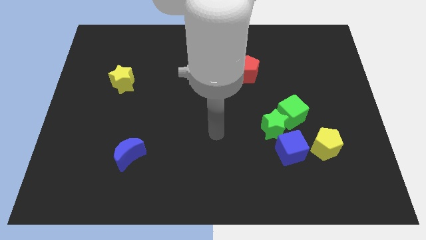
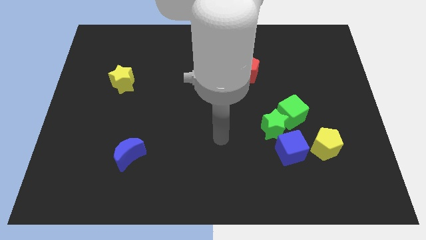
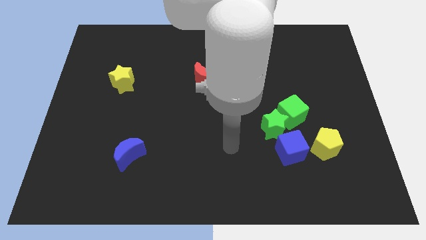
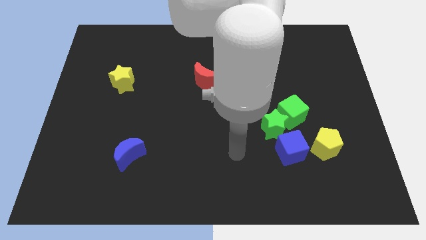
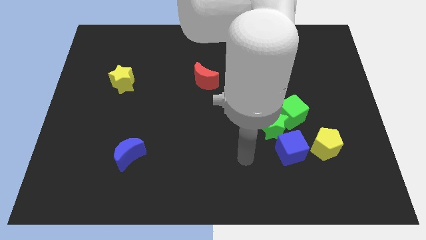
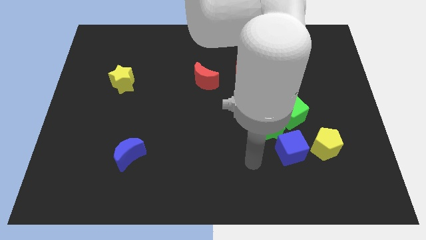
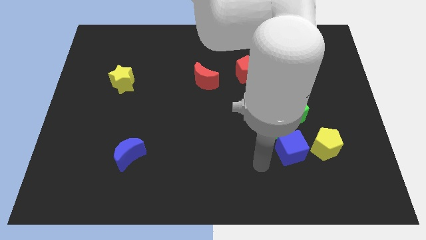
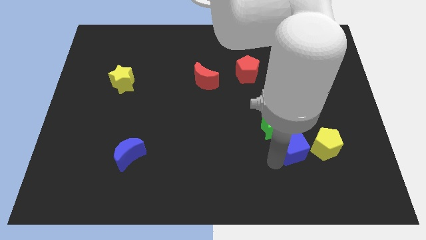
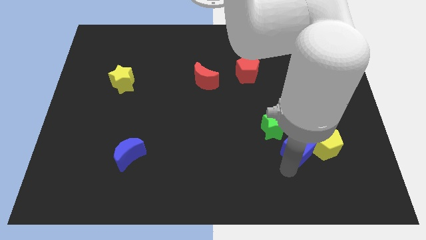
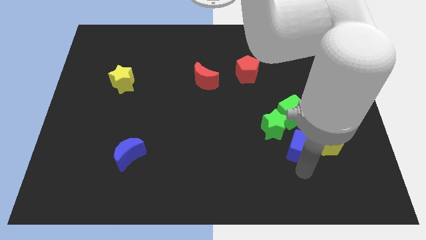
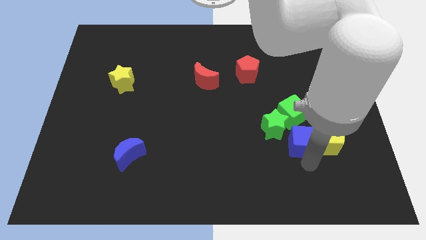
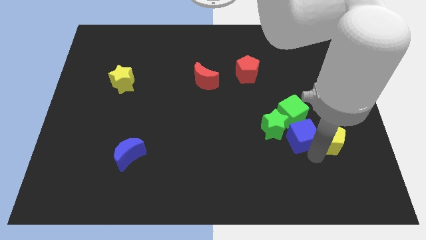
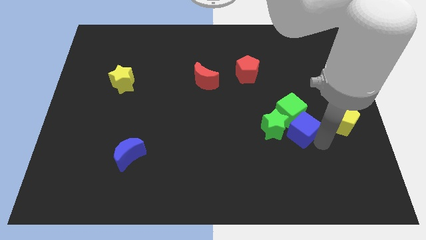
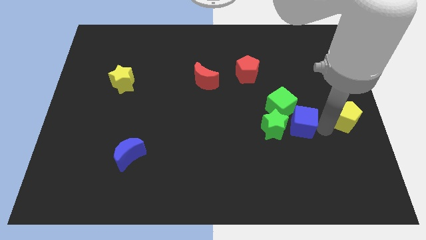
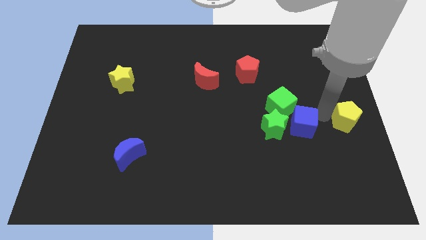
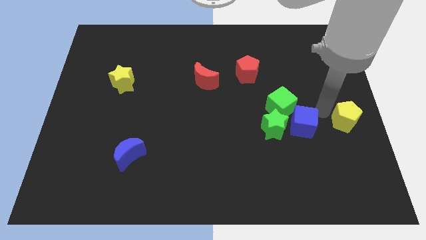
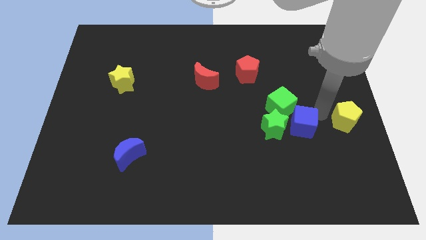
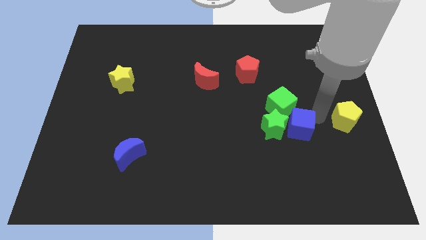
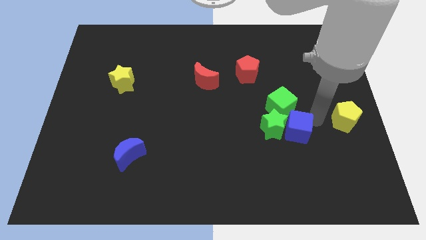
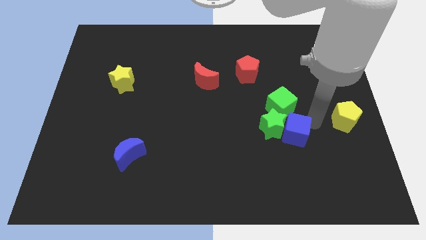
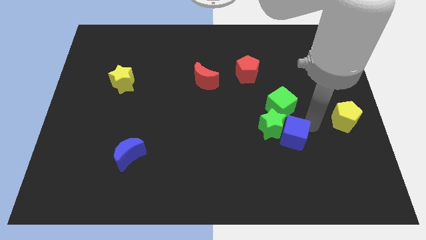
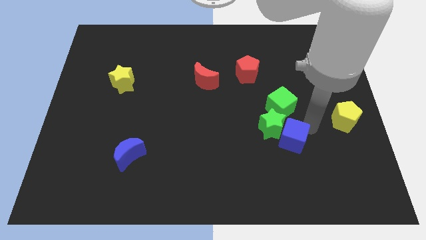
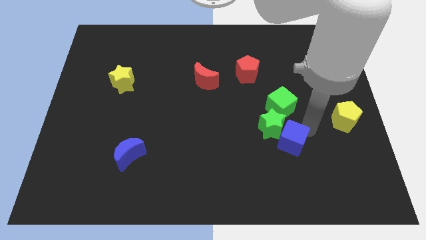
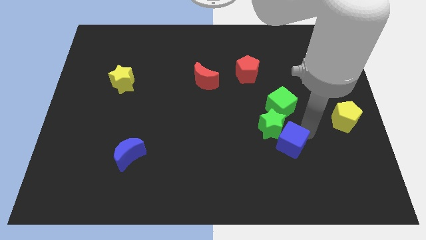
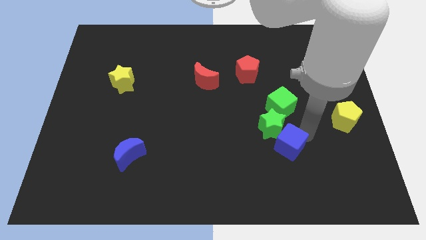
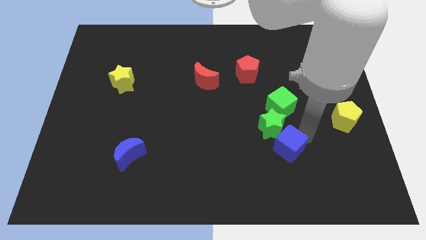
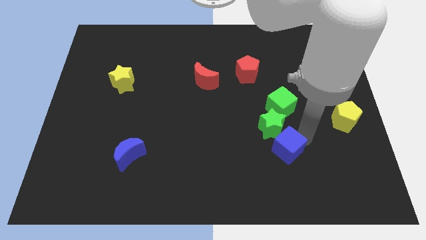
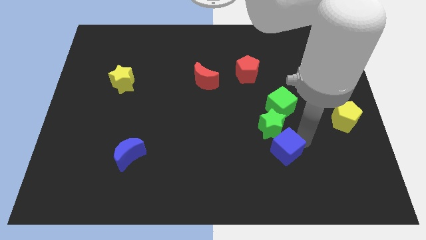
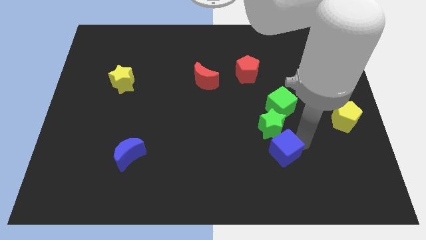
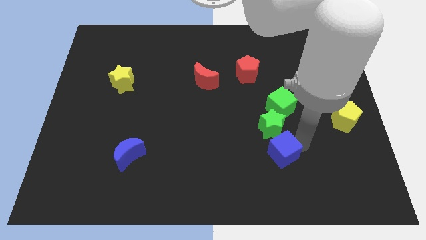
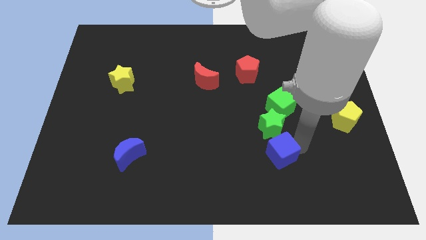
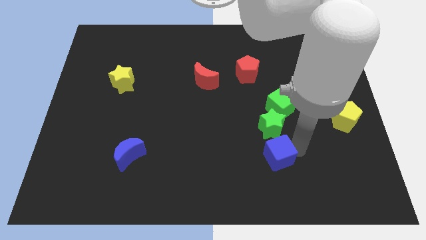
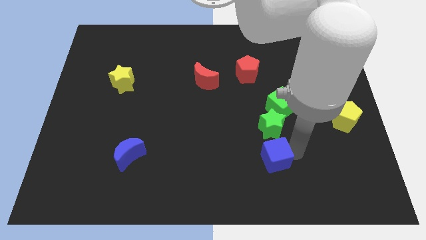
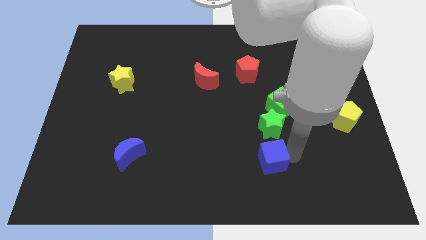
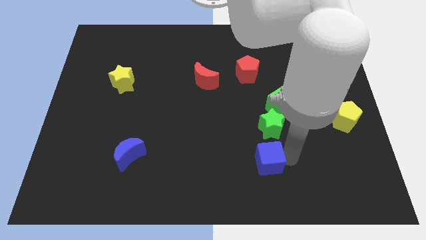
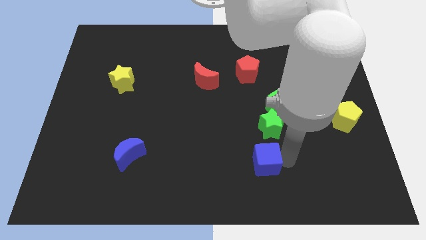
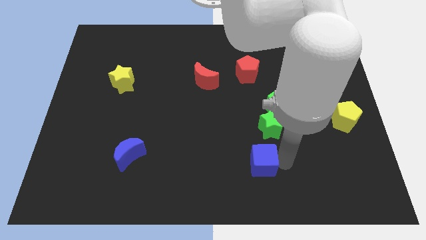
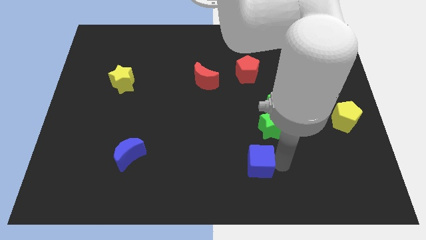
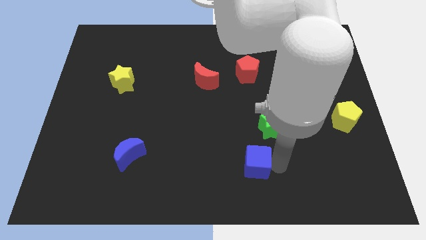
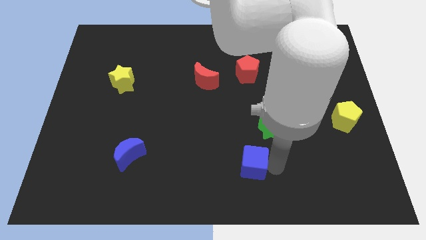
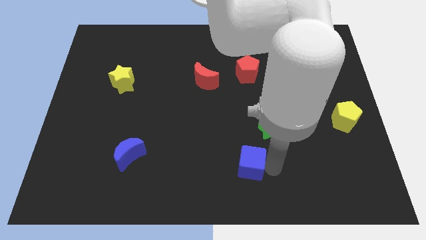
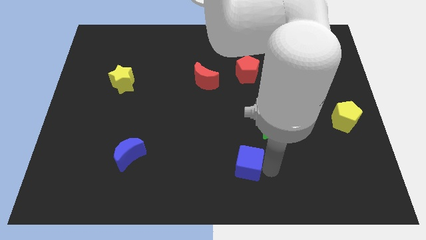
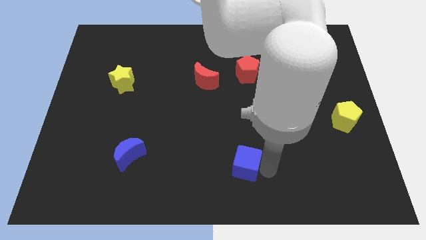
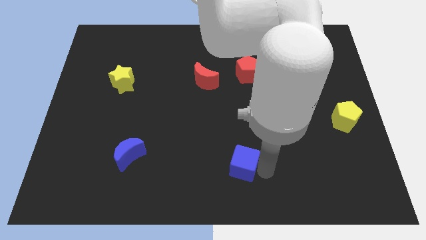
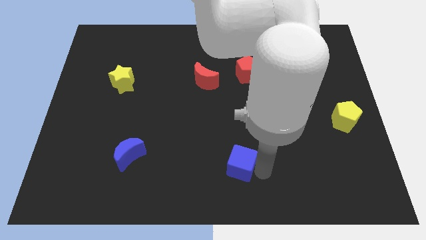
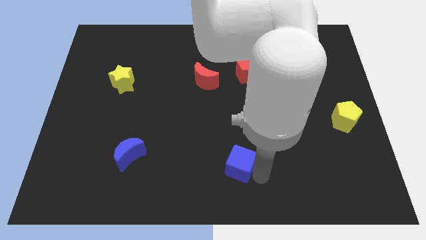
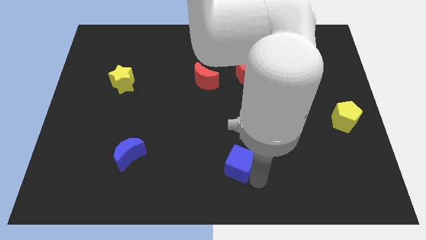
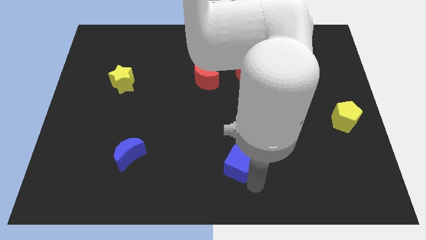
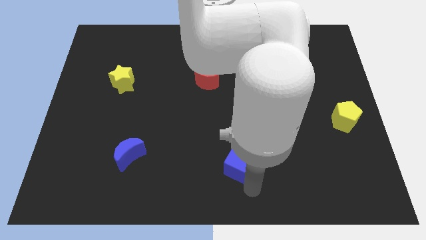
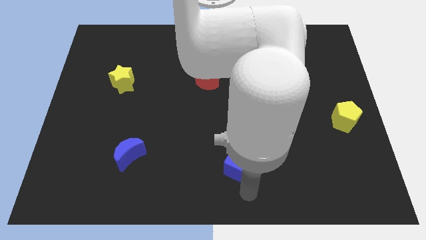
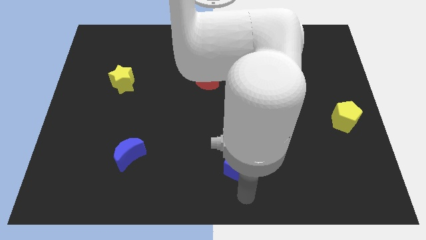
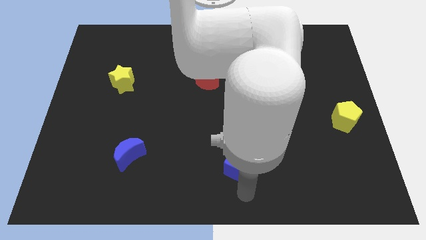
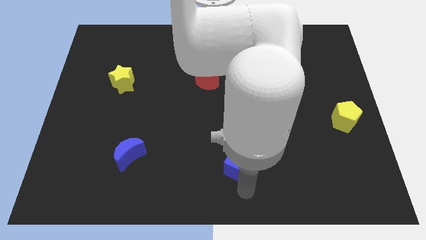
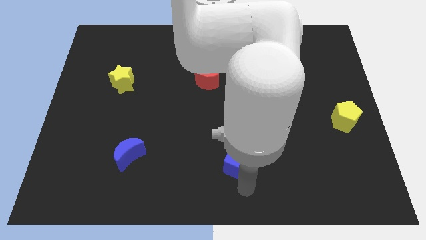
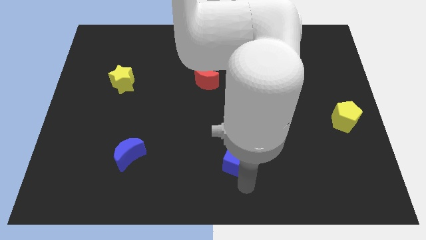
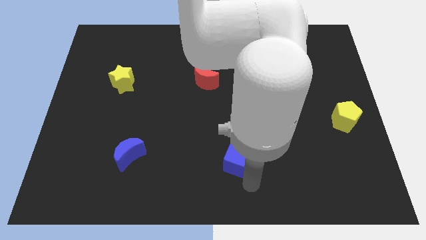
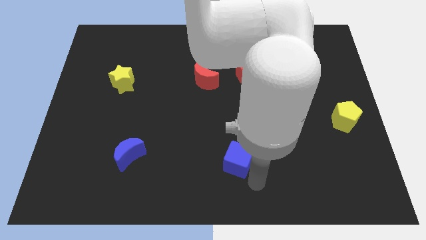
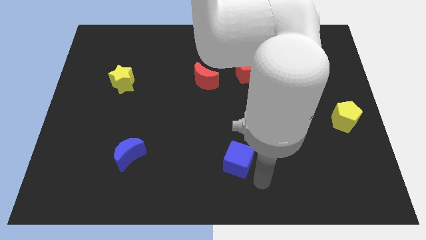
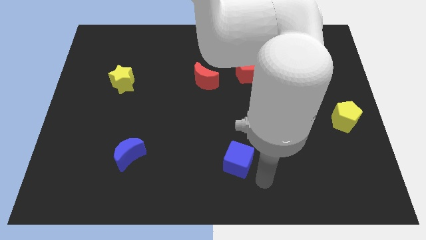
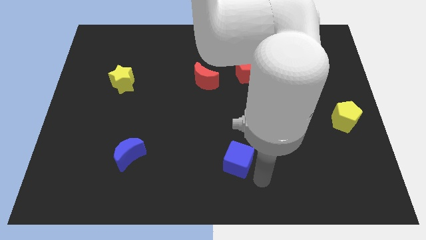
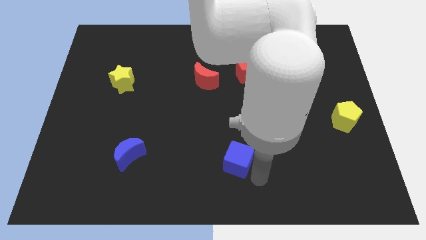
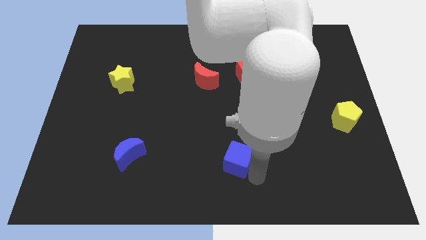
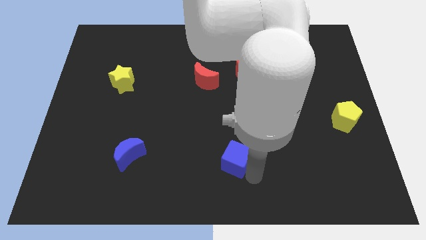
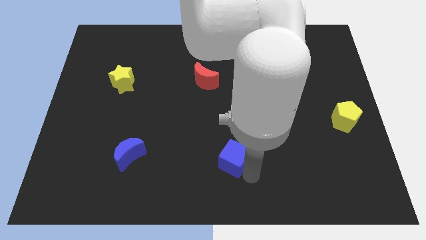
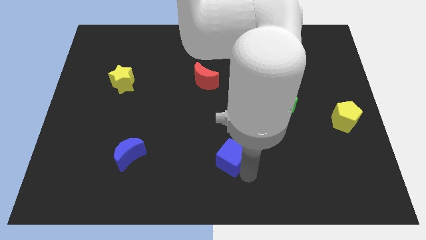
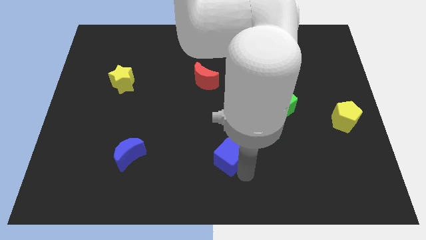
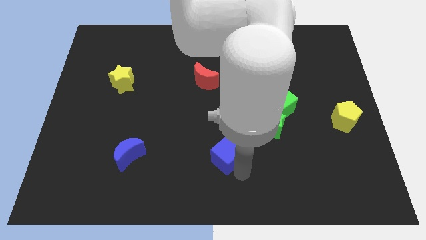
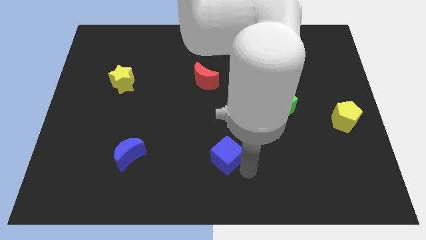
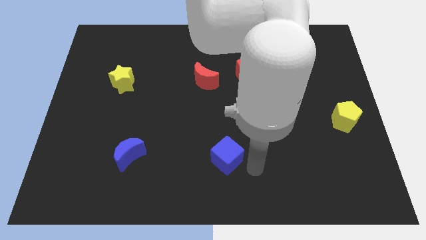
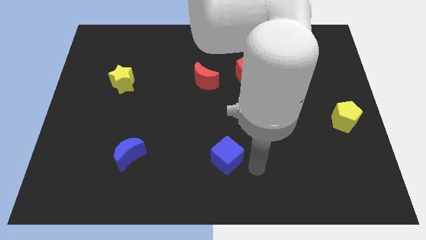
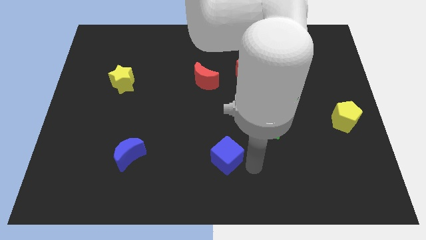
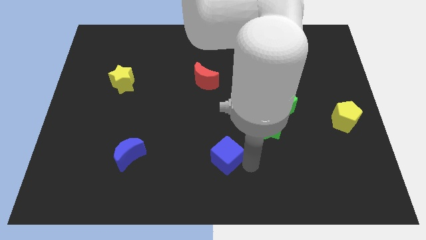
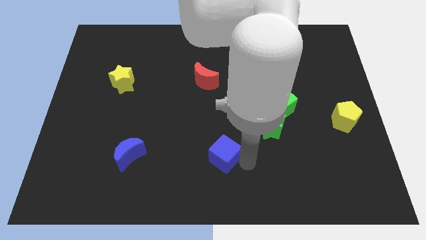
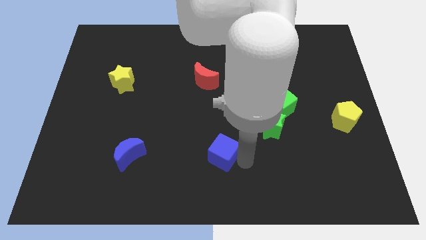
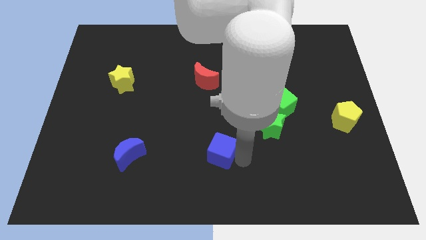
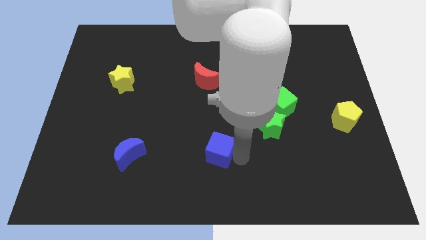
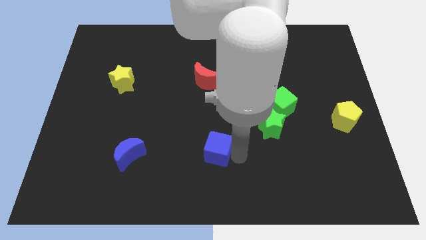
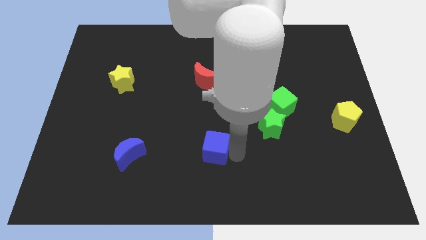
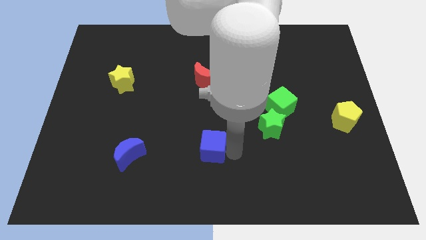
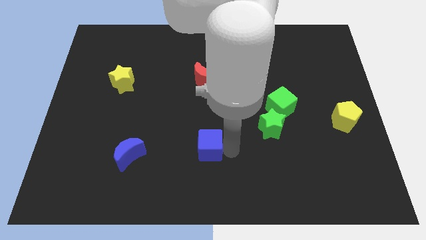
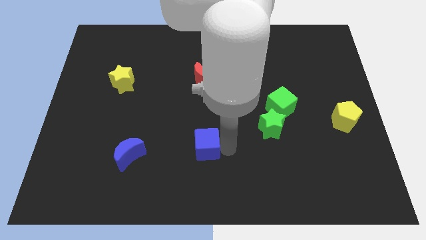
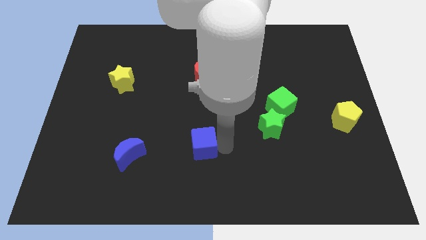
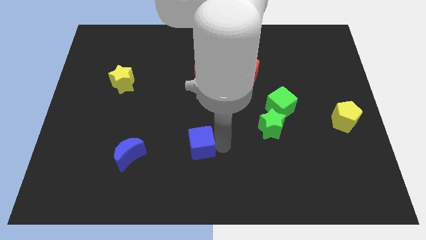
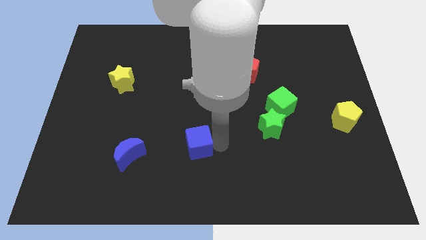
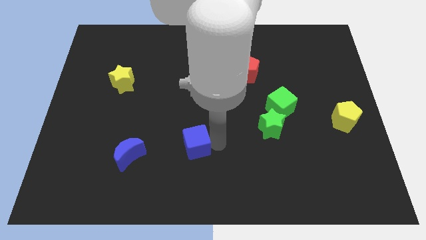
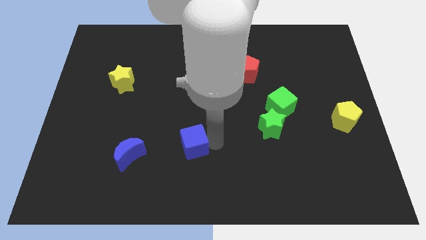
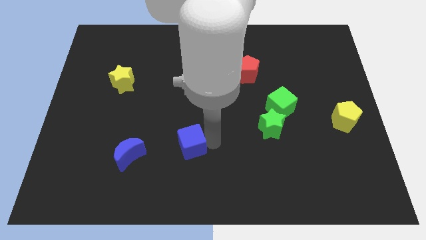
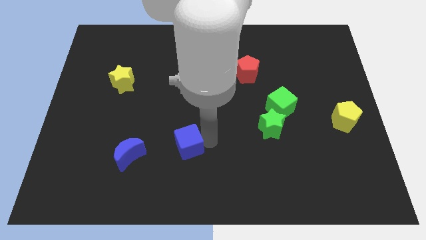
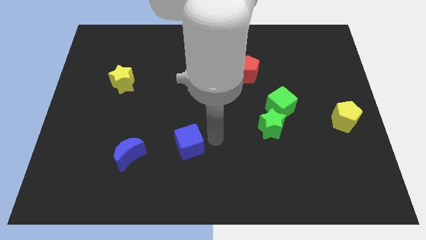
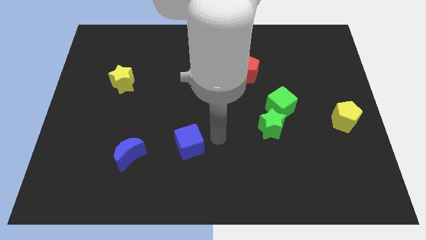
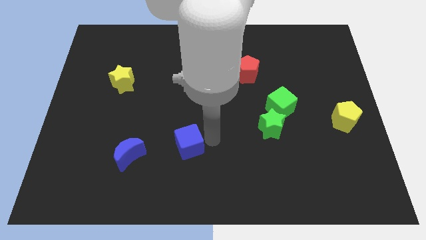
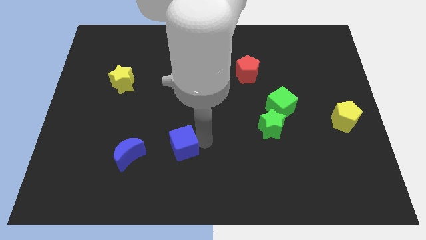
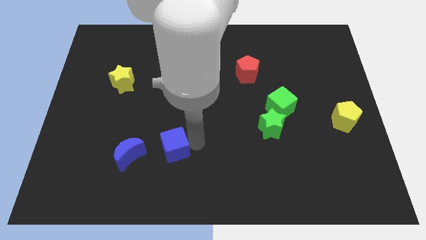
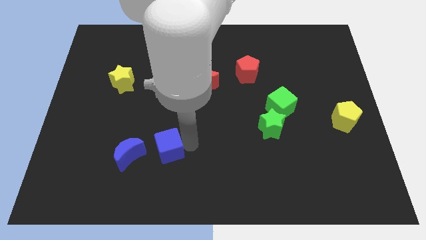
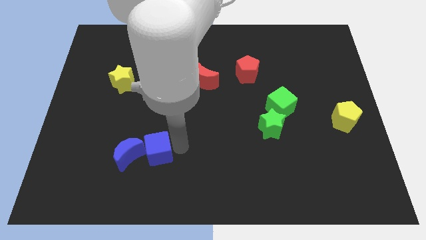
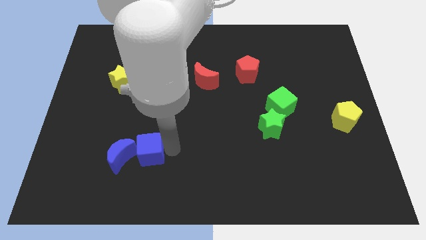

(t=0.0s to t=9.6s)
put the blue cube next to the blue moon
